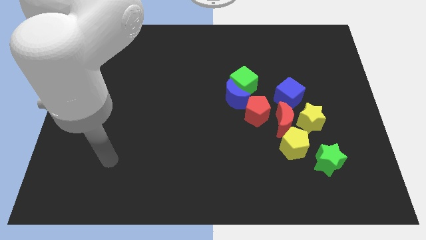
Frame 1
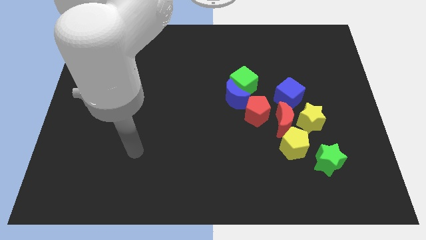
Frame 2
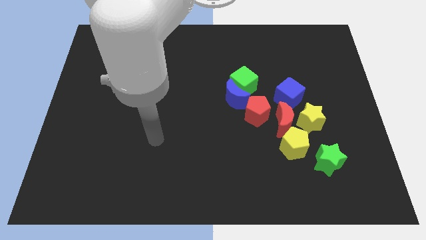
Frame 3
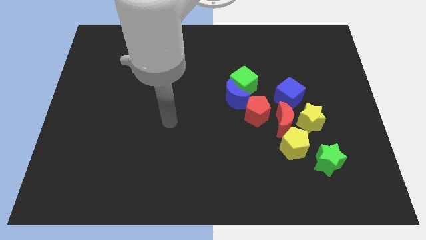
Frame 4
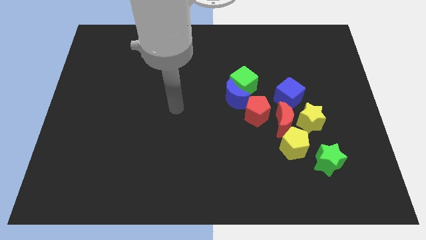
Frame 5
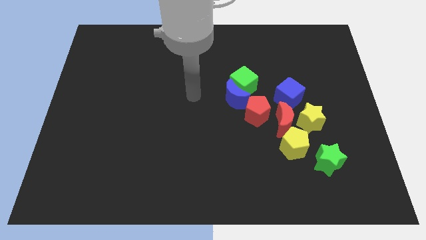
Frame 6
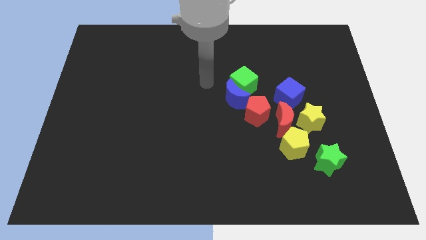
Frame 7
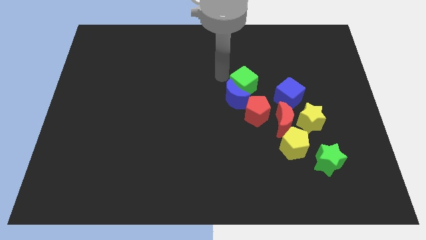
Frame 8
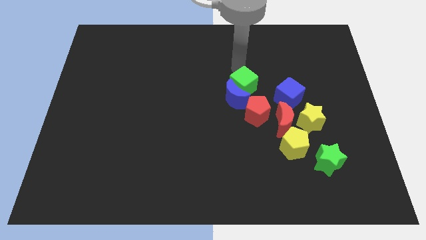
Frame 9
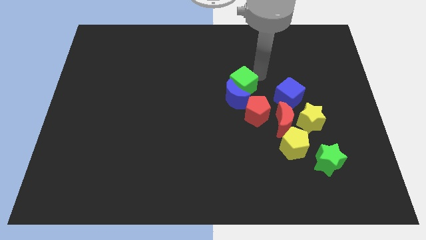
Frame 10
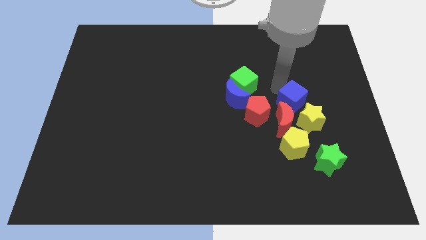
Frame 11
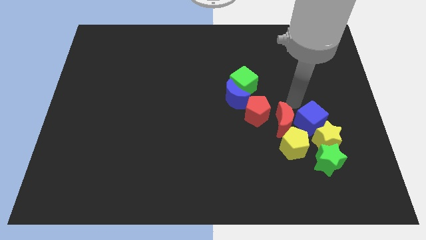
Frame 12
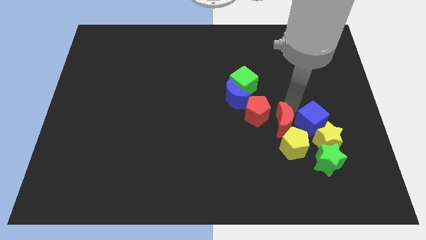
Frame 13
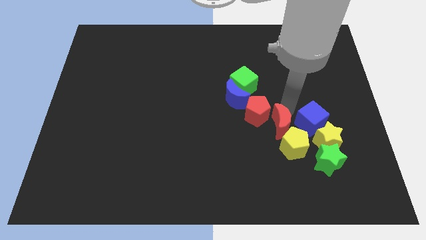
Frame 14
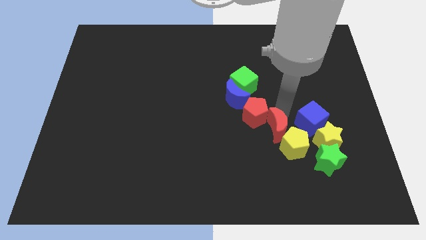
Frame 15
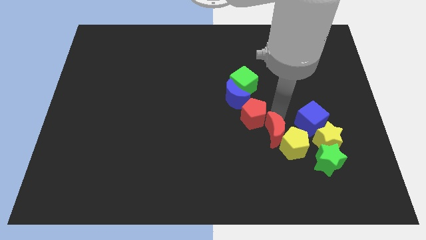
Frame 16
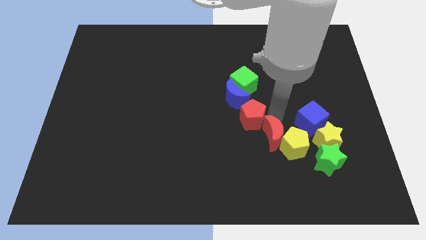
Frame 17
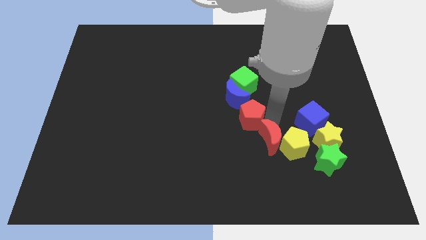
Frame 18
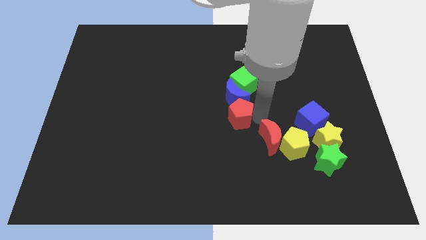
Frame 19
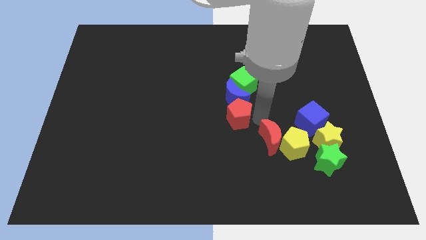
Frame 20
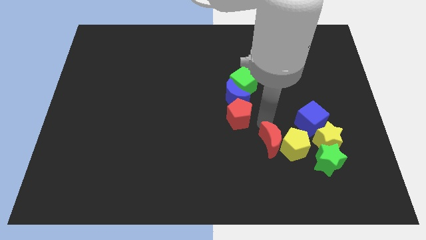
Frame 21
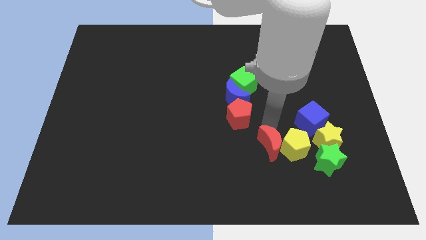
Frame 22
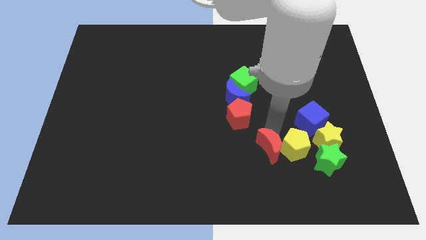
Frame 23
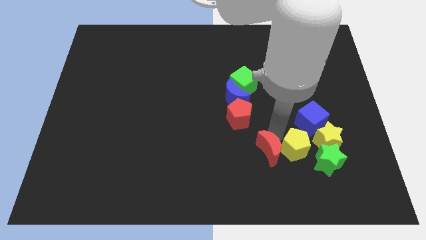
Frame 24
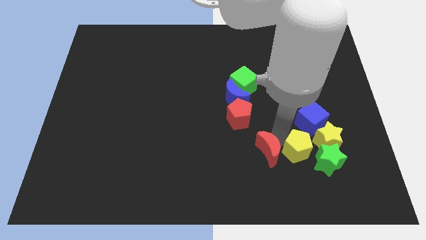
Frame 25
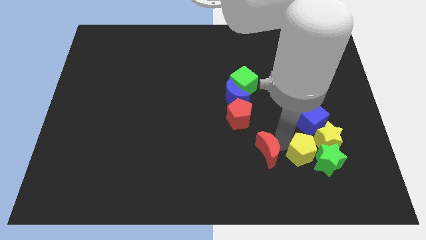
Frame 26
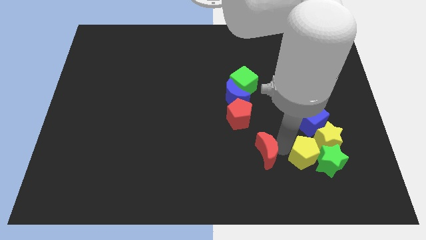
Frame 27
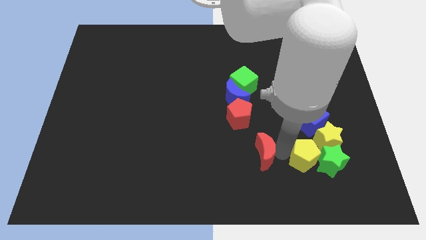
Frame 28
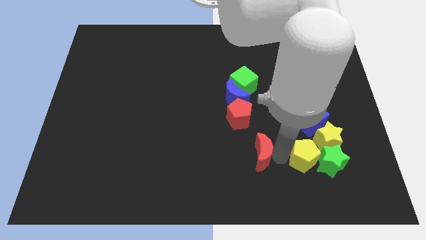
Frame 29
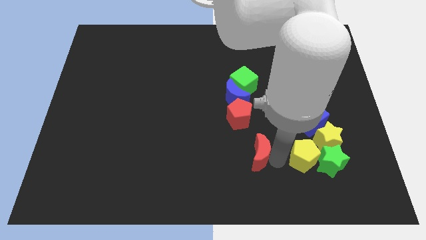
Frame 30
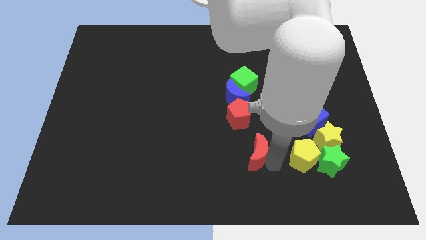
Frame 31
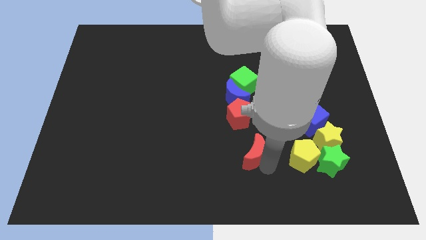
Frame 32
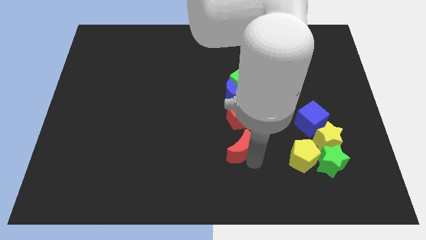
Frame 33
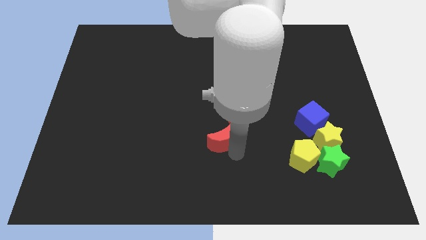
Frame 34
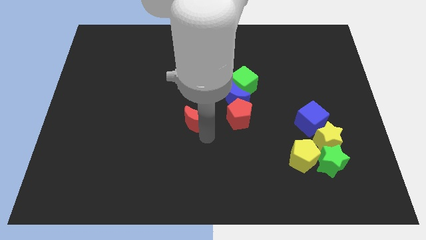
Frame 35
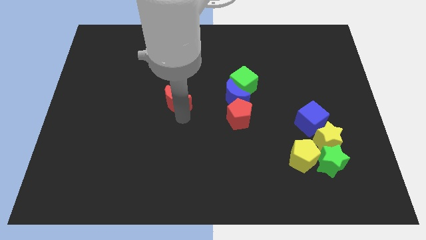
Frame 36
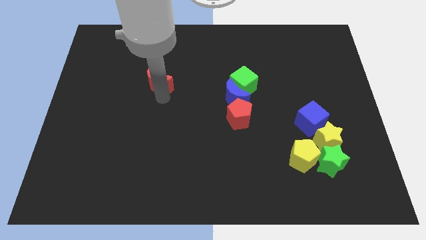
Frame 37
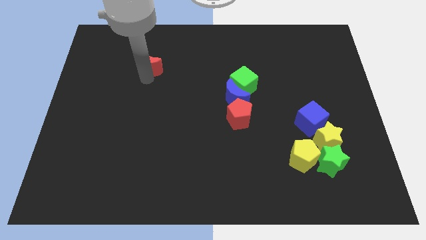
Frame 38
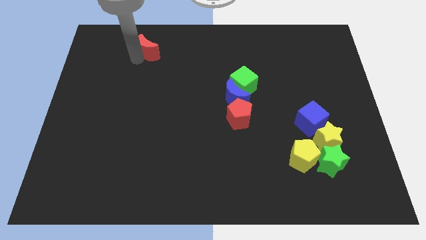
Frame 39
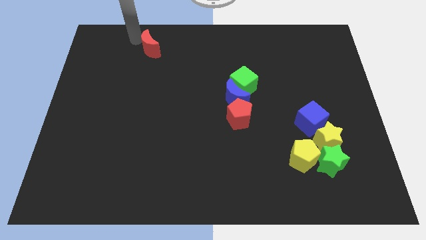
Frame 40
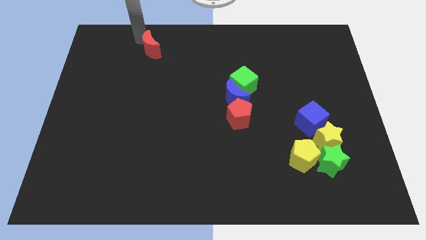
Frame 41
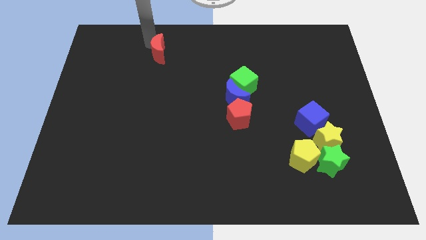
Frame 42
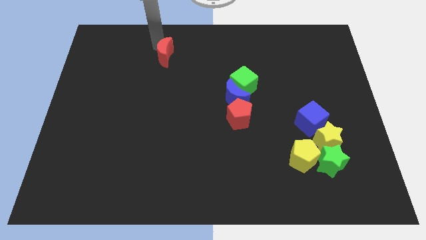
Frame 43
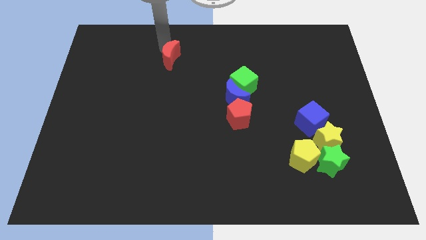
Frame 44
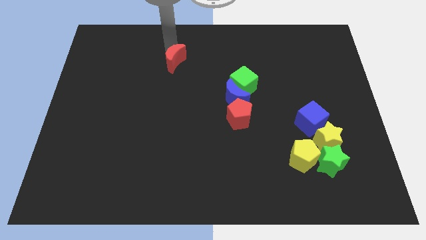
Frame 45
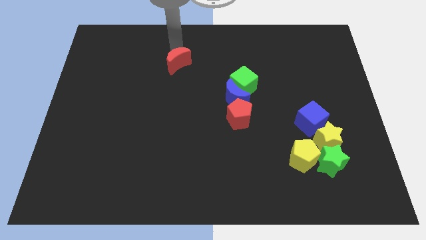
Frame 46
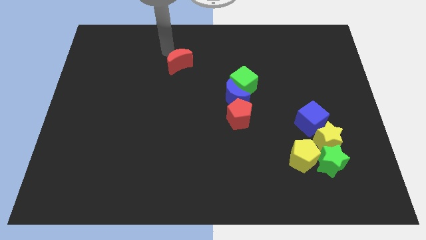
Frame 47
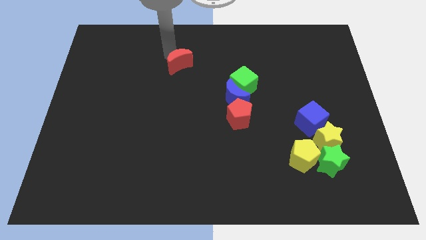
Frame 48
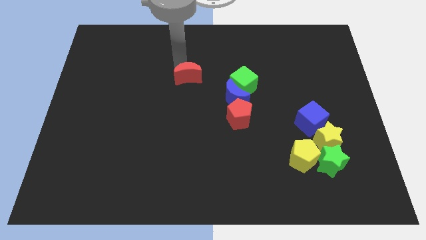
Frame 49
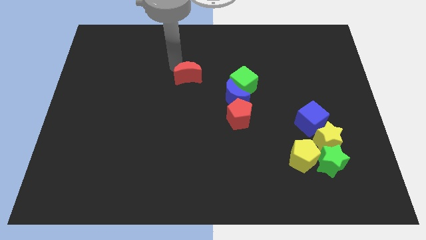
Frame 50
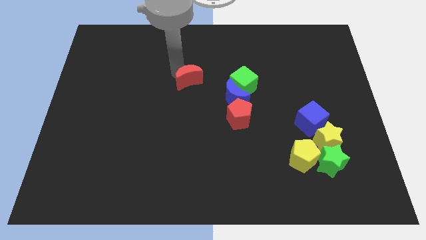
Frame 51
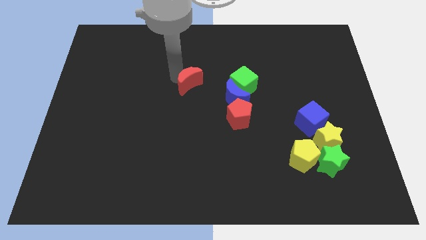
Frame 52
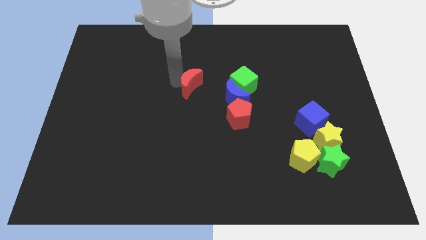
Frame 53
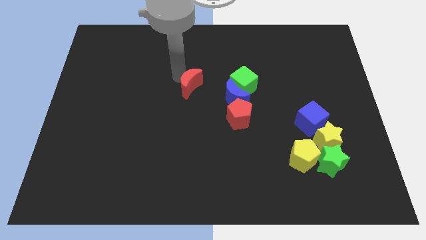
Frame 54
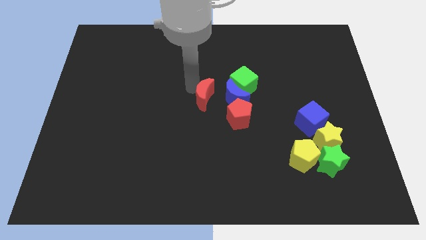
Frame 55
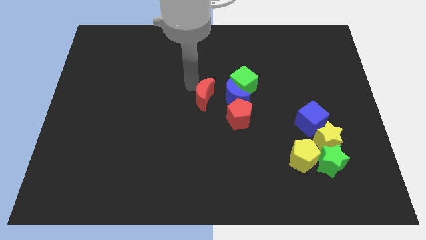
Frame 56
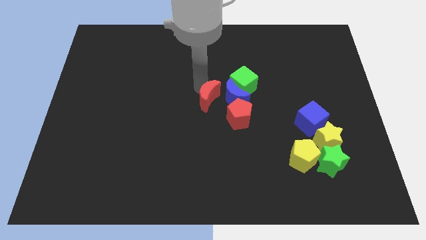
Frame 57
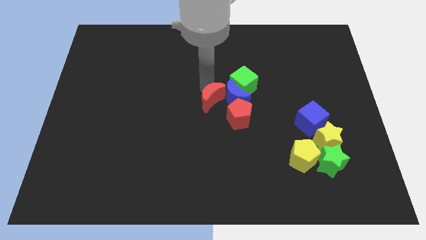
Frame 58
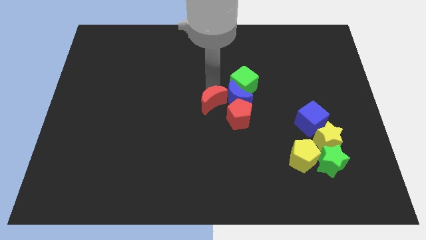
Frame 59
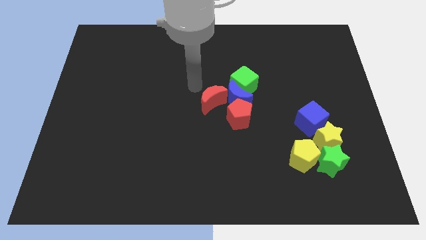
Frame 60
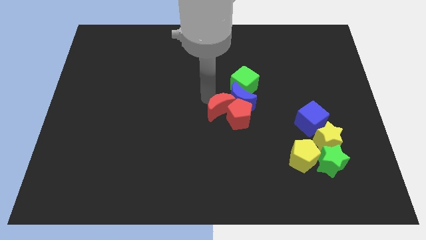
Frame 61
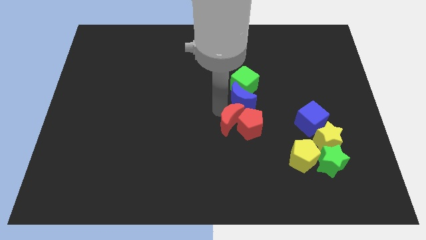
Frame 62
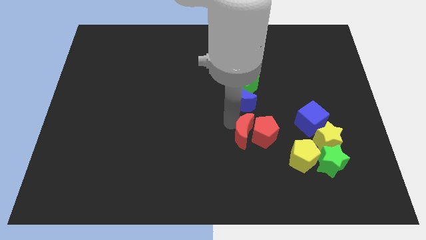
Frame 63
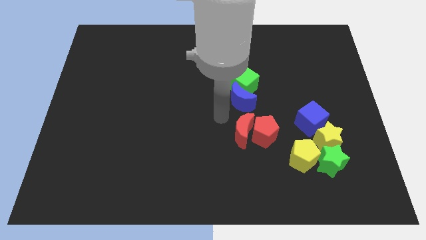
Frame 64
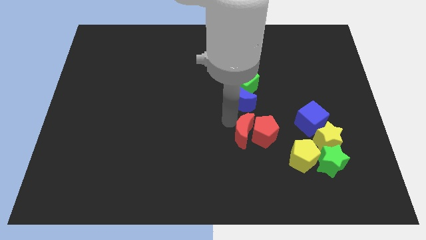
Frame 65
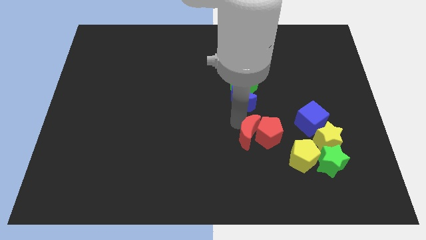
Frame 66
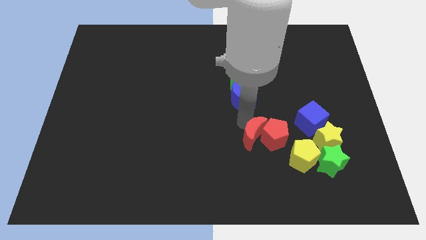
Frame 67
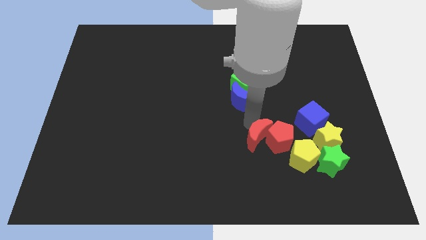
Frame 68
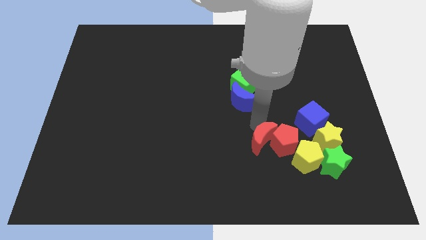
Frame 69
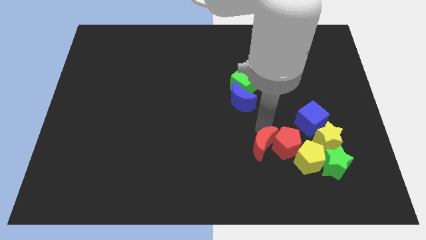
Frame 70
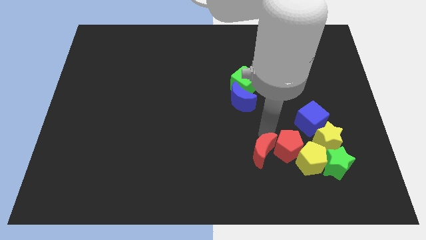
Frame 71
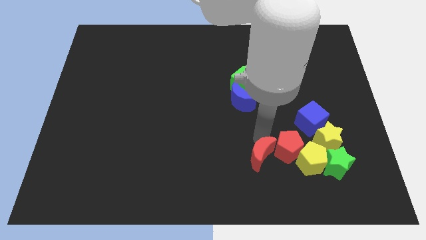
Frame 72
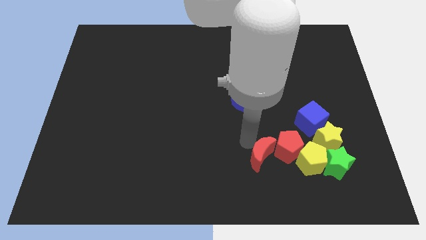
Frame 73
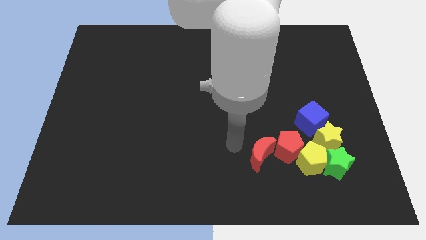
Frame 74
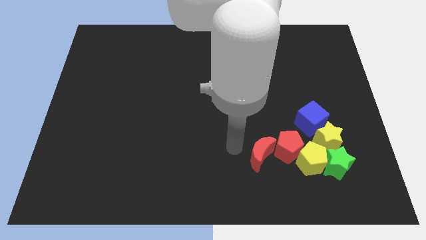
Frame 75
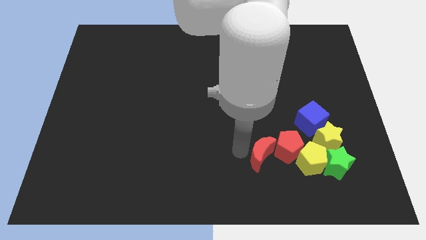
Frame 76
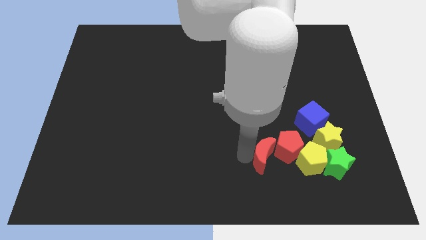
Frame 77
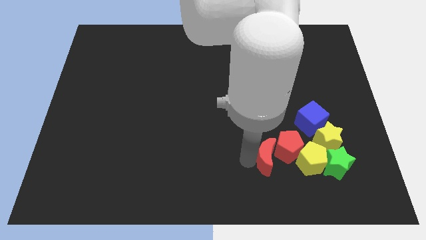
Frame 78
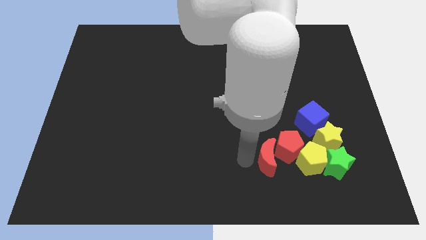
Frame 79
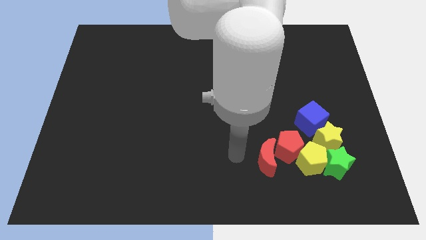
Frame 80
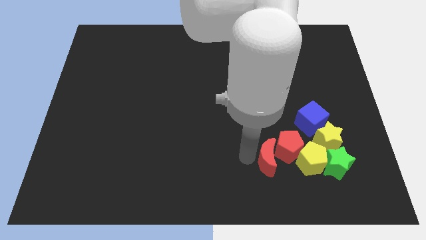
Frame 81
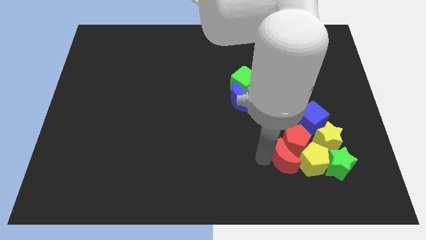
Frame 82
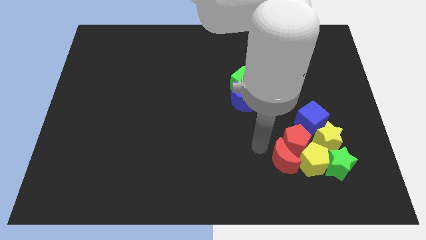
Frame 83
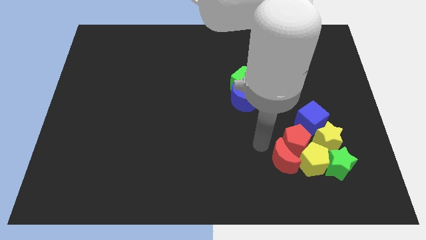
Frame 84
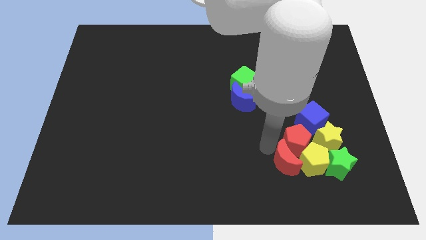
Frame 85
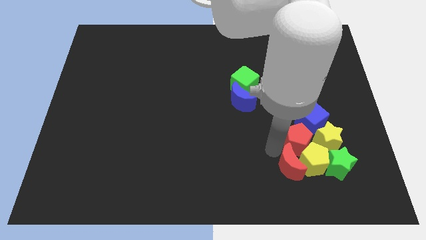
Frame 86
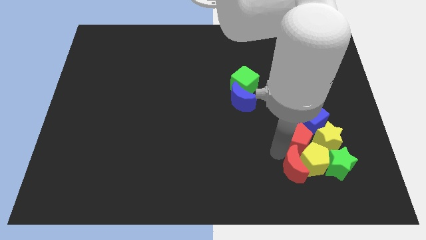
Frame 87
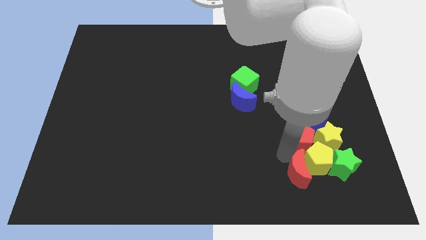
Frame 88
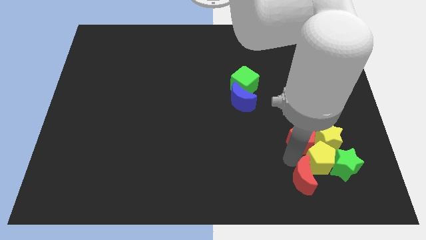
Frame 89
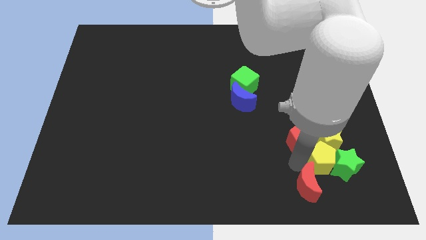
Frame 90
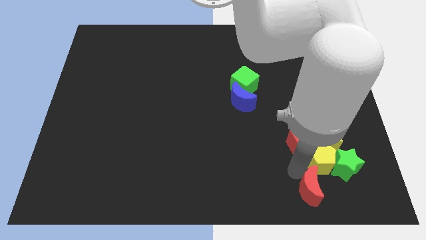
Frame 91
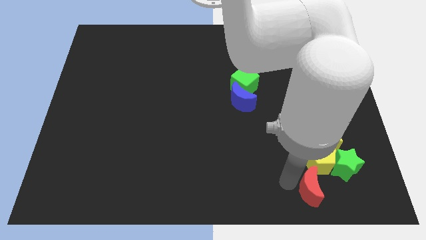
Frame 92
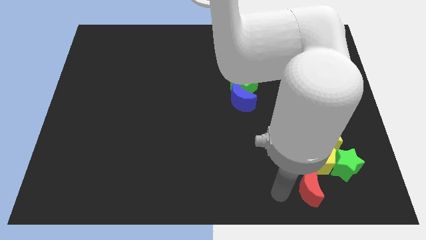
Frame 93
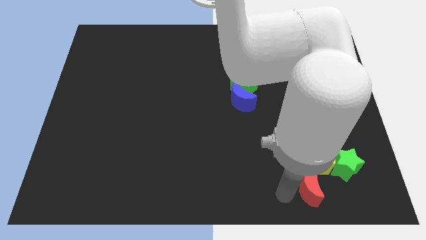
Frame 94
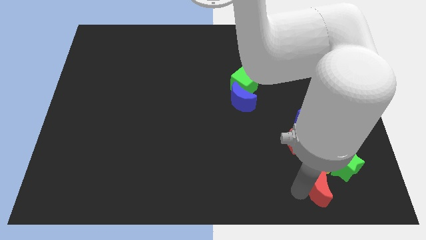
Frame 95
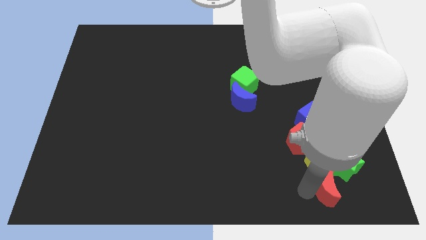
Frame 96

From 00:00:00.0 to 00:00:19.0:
put the red moon diagonally down and to the right of the yellow pentagon
